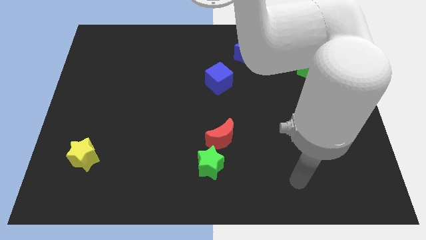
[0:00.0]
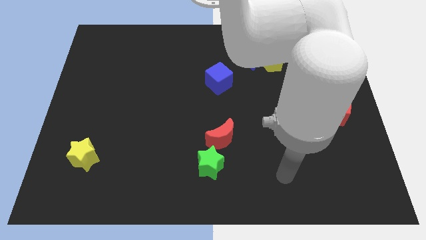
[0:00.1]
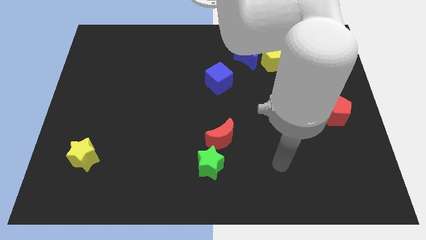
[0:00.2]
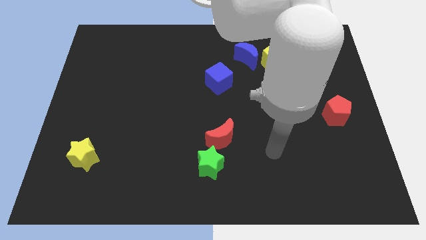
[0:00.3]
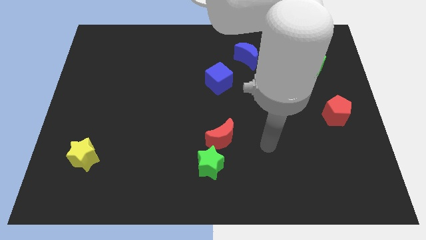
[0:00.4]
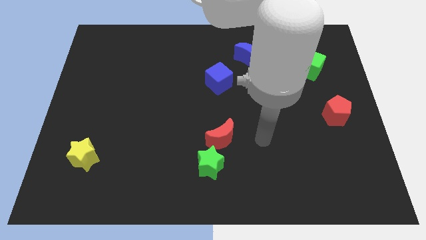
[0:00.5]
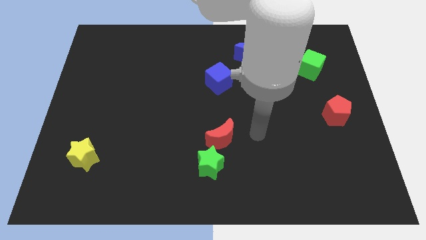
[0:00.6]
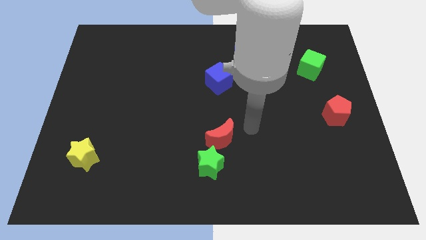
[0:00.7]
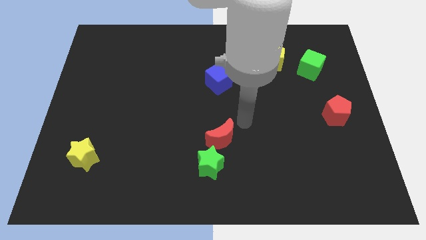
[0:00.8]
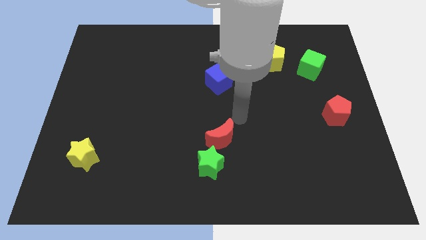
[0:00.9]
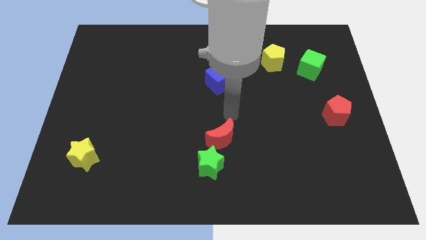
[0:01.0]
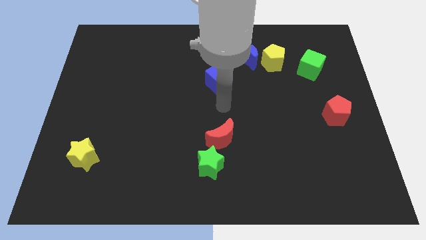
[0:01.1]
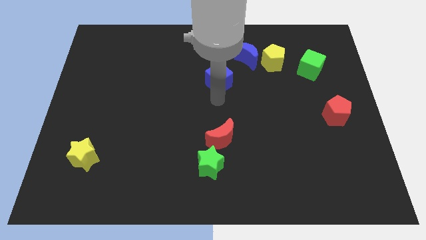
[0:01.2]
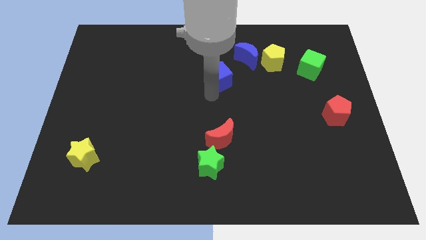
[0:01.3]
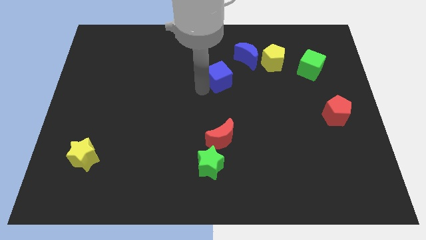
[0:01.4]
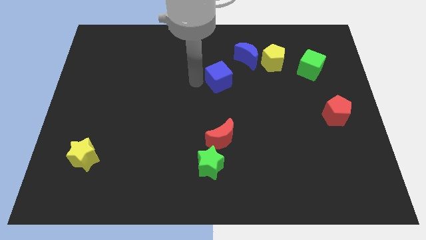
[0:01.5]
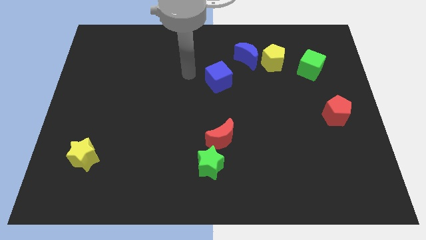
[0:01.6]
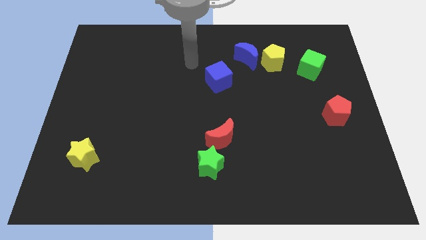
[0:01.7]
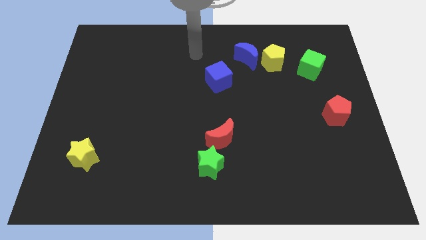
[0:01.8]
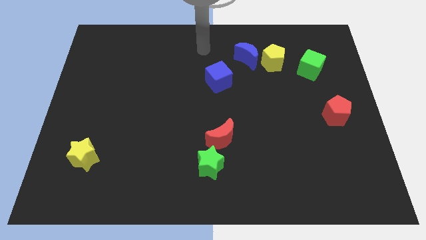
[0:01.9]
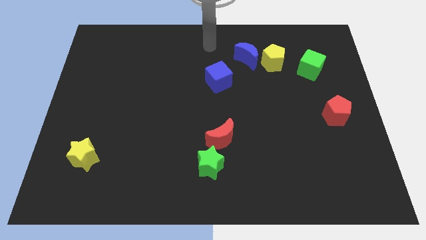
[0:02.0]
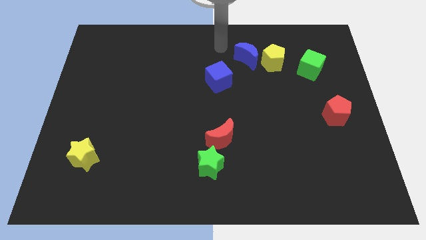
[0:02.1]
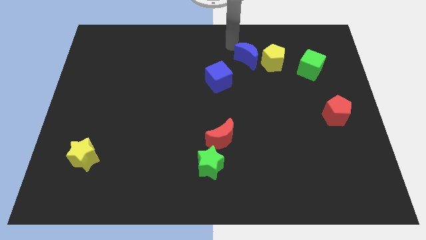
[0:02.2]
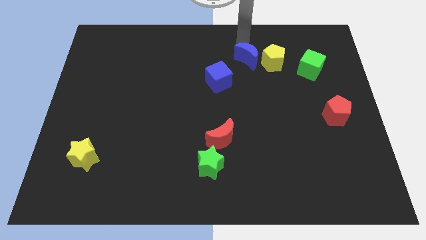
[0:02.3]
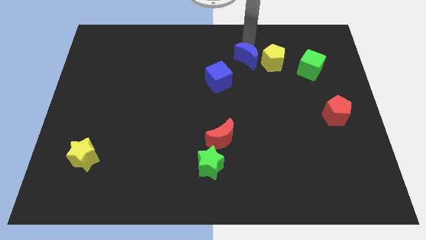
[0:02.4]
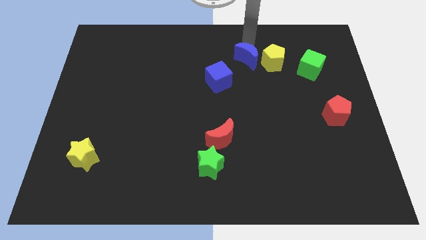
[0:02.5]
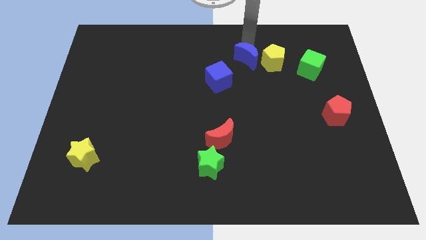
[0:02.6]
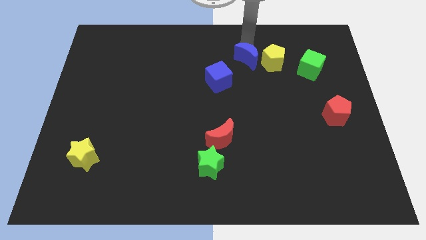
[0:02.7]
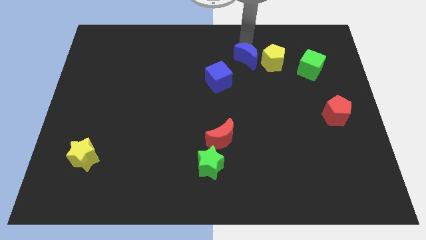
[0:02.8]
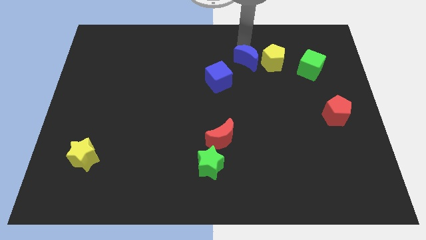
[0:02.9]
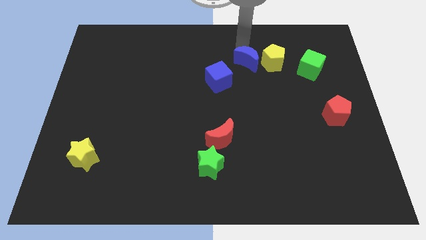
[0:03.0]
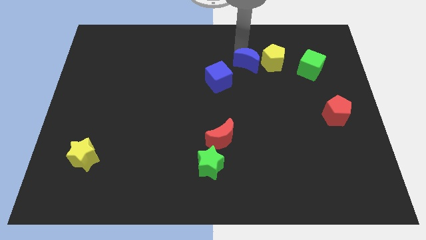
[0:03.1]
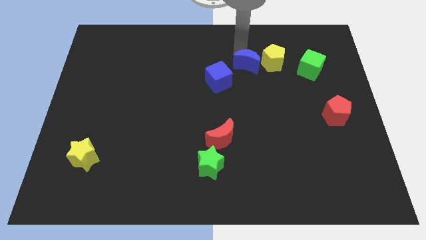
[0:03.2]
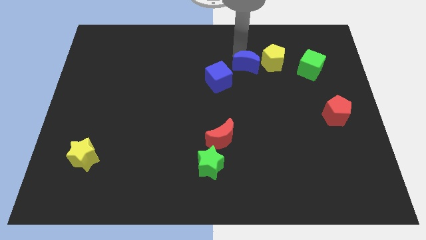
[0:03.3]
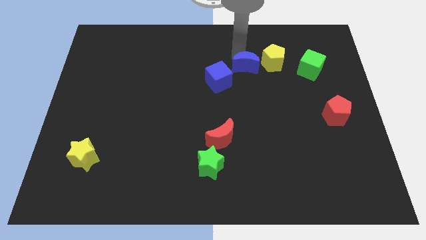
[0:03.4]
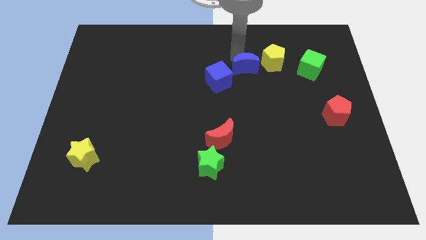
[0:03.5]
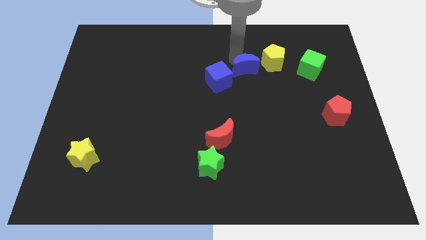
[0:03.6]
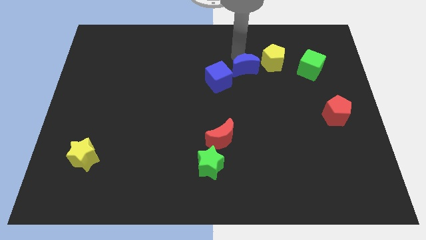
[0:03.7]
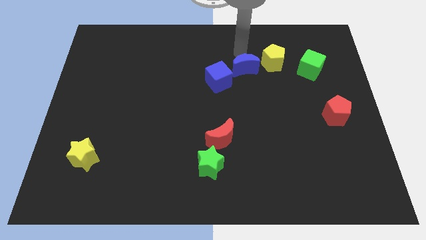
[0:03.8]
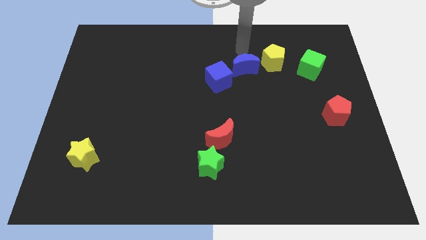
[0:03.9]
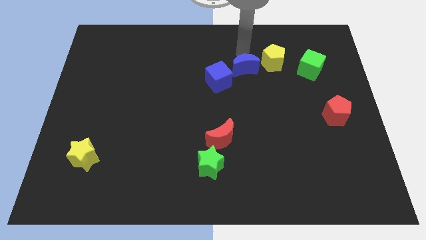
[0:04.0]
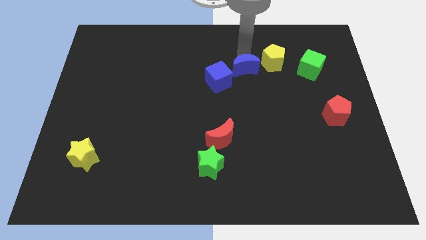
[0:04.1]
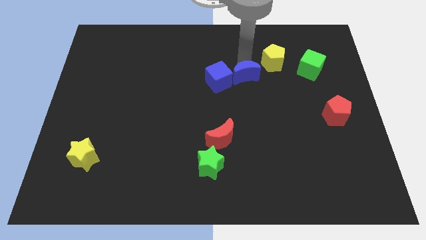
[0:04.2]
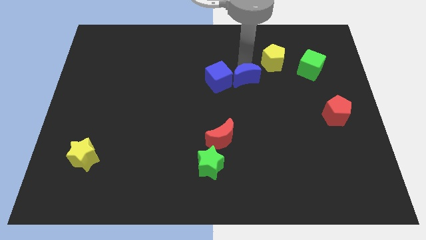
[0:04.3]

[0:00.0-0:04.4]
move the blue moon a little bit down

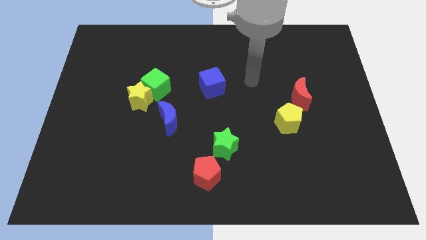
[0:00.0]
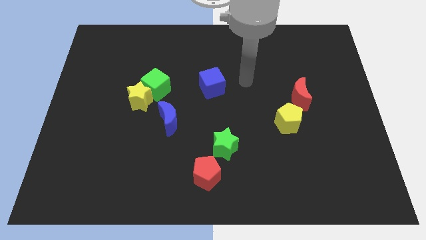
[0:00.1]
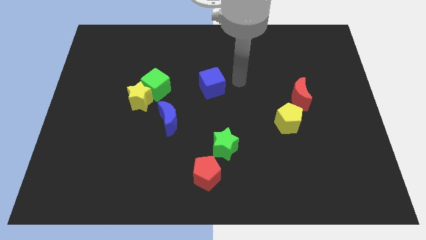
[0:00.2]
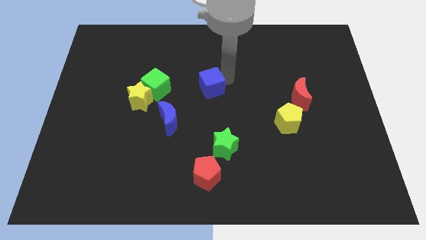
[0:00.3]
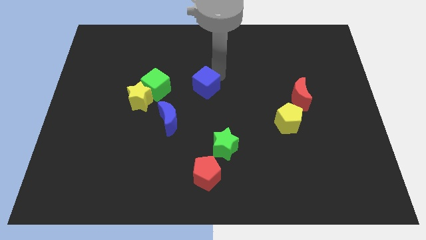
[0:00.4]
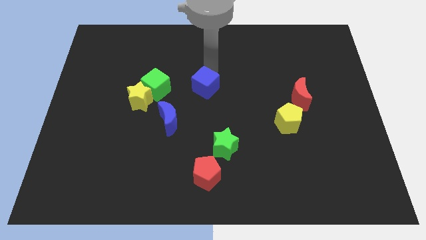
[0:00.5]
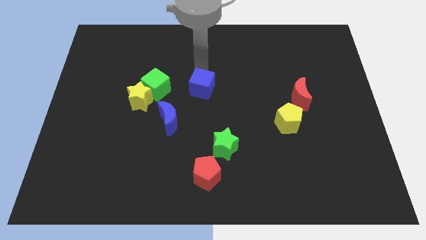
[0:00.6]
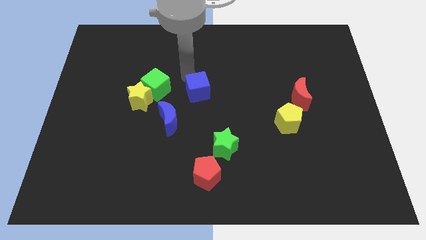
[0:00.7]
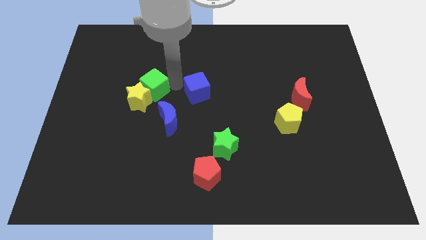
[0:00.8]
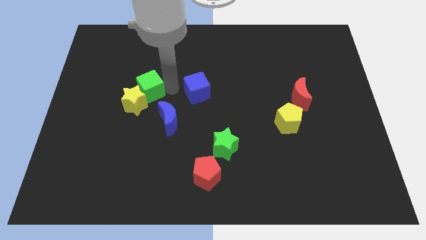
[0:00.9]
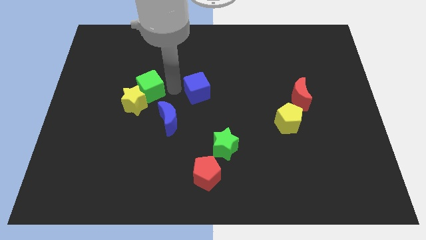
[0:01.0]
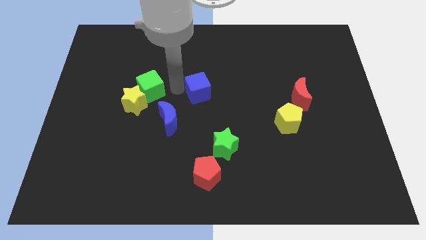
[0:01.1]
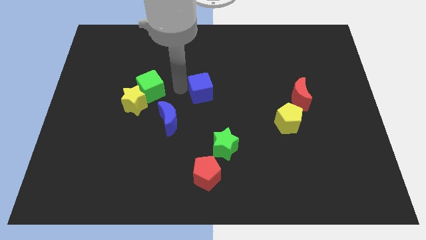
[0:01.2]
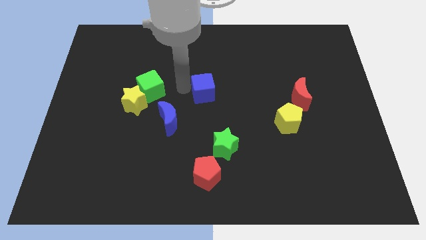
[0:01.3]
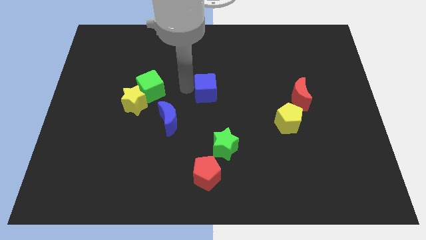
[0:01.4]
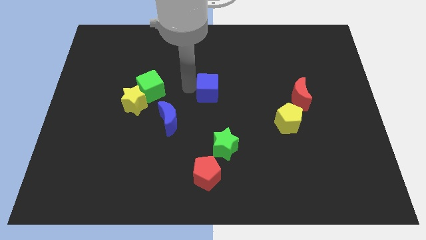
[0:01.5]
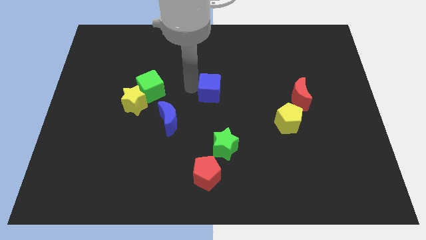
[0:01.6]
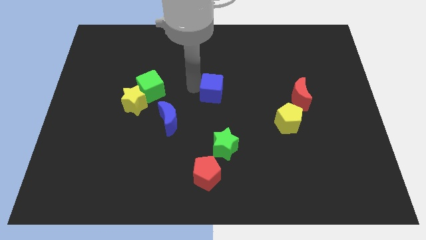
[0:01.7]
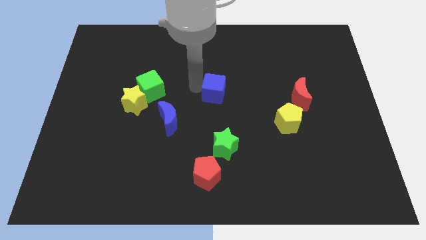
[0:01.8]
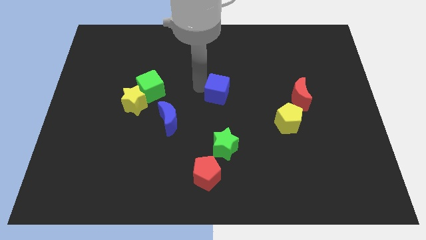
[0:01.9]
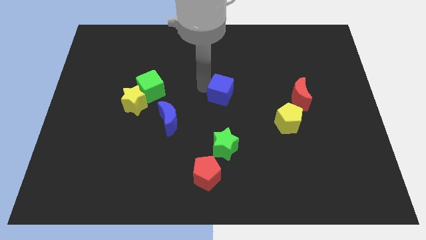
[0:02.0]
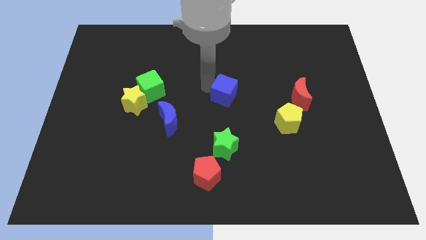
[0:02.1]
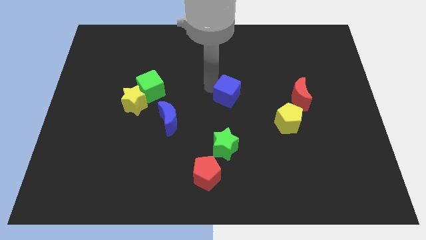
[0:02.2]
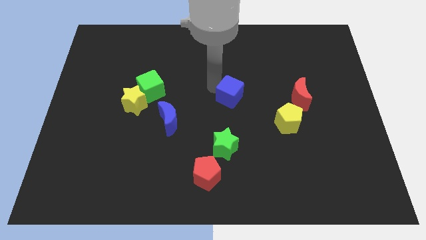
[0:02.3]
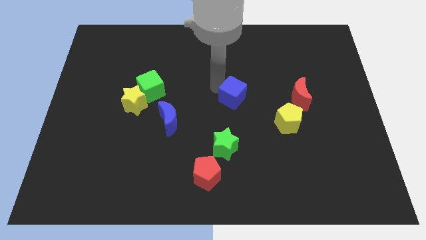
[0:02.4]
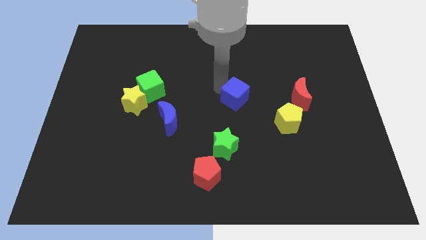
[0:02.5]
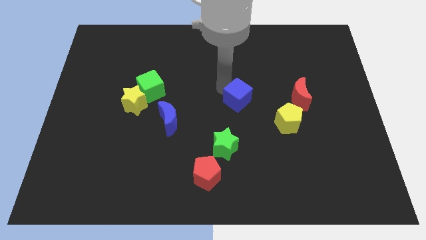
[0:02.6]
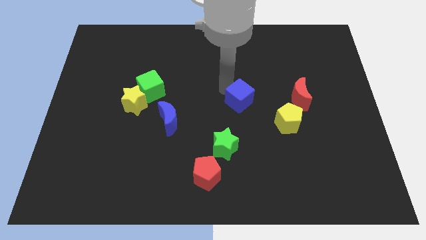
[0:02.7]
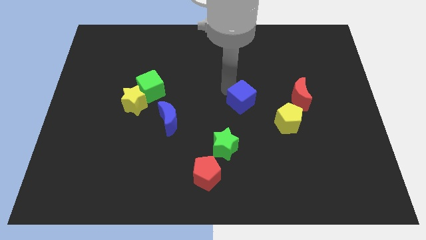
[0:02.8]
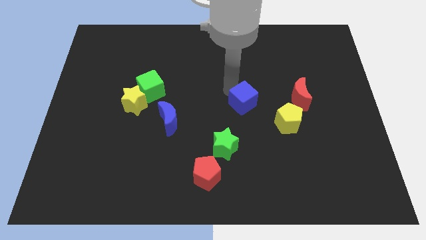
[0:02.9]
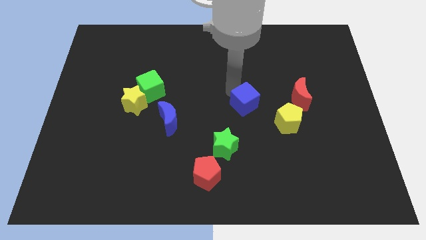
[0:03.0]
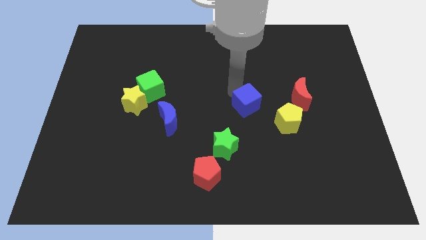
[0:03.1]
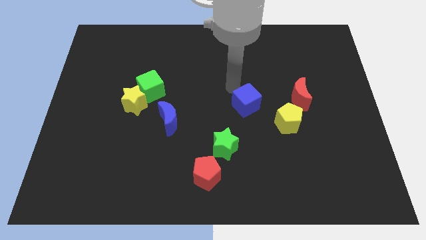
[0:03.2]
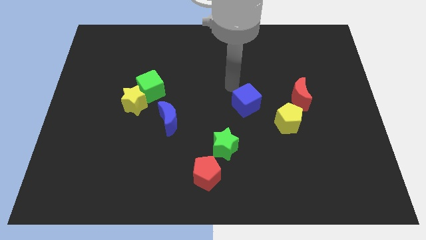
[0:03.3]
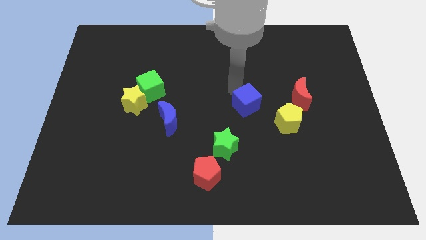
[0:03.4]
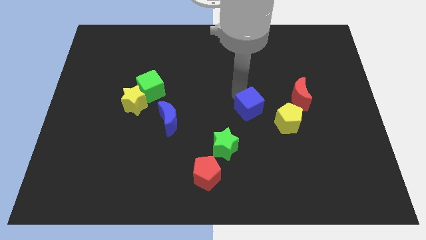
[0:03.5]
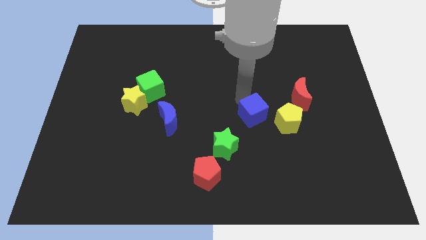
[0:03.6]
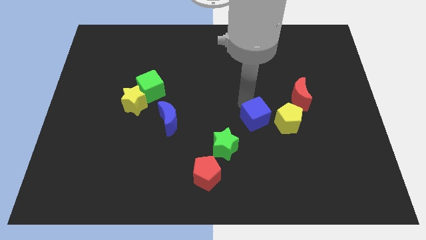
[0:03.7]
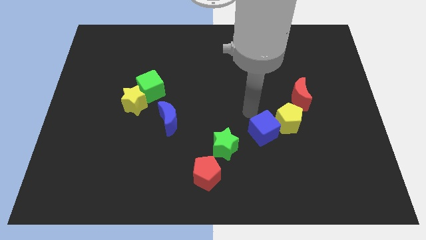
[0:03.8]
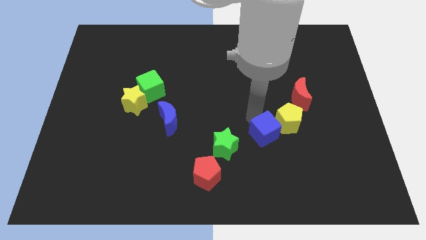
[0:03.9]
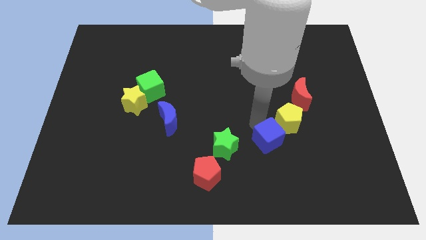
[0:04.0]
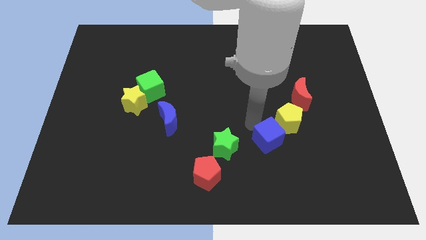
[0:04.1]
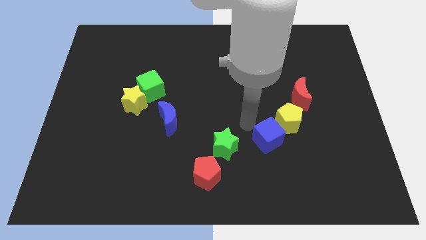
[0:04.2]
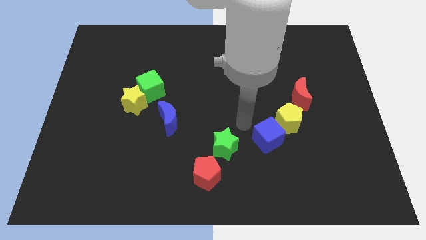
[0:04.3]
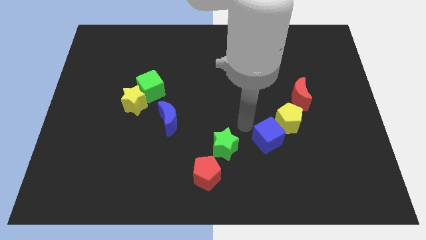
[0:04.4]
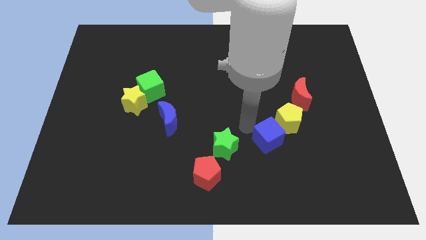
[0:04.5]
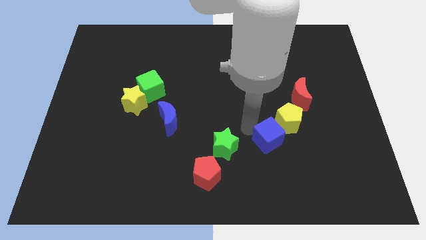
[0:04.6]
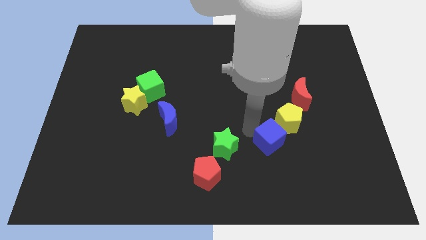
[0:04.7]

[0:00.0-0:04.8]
slide the blue cube down and right diagonally
